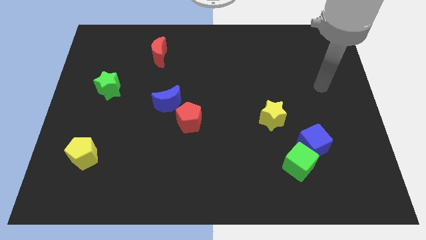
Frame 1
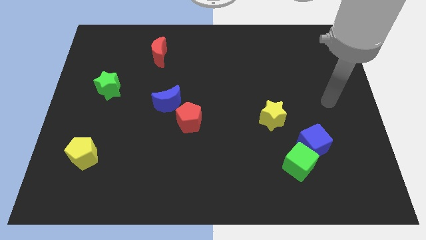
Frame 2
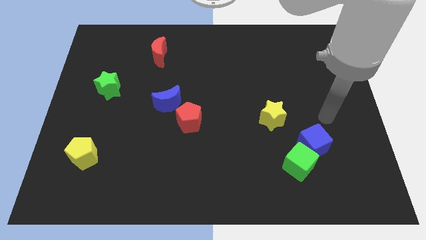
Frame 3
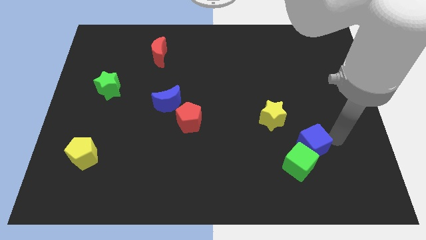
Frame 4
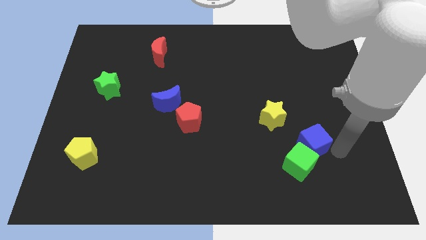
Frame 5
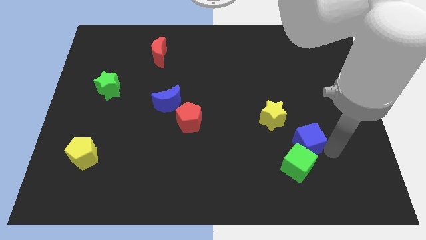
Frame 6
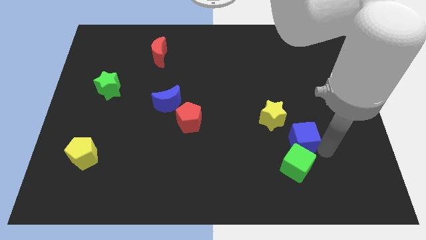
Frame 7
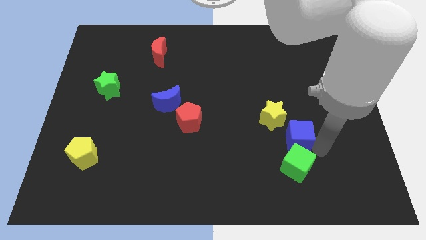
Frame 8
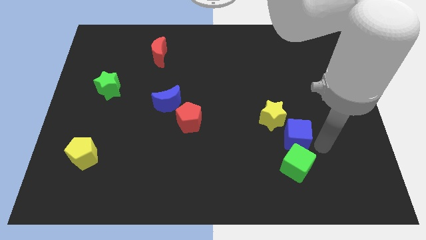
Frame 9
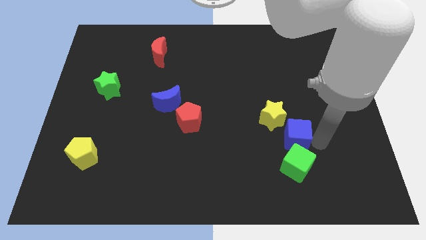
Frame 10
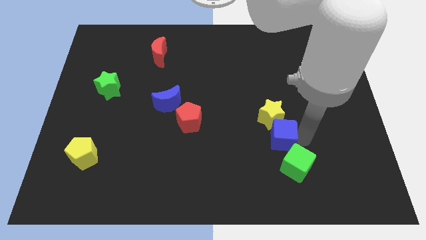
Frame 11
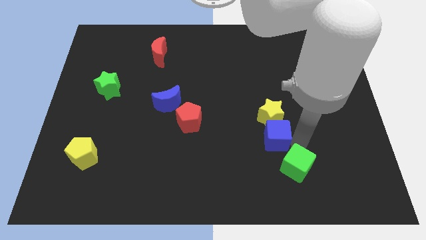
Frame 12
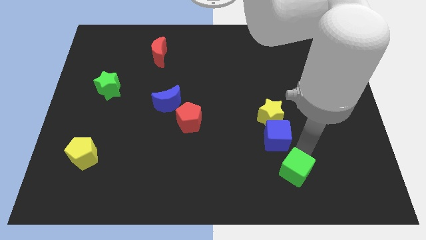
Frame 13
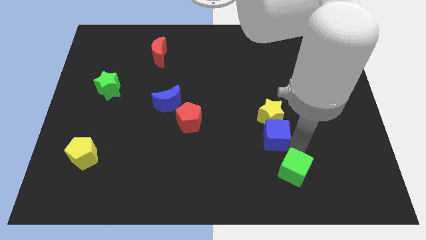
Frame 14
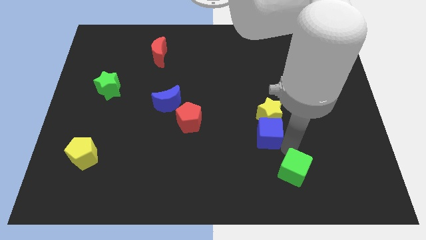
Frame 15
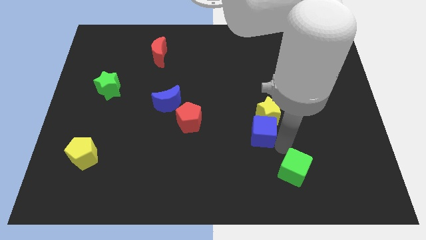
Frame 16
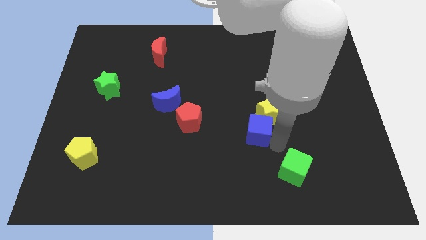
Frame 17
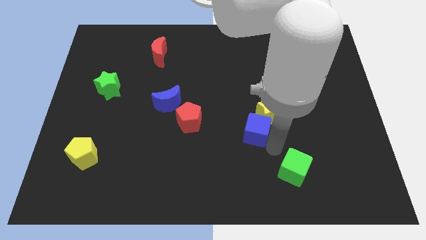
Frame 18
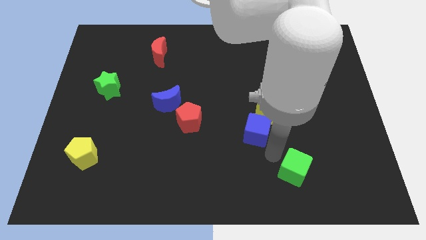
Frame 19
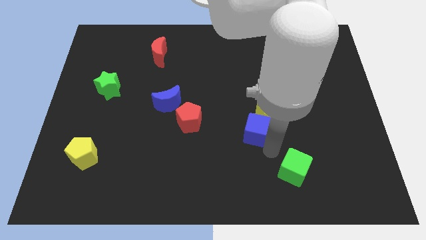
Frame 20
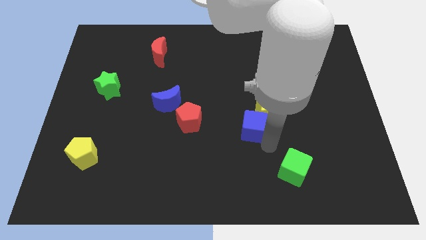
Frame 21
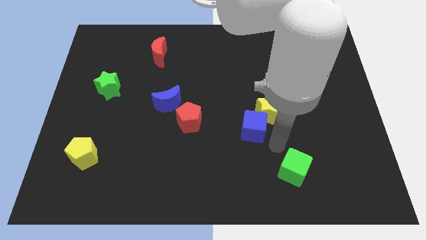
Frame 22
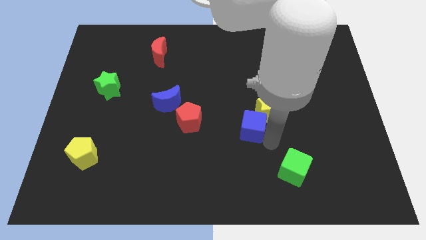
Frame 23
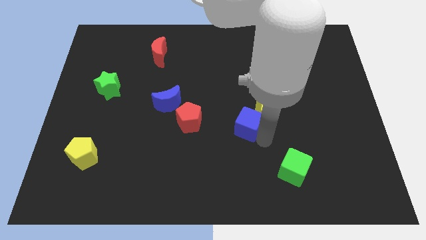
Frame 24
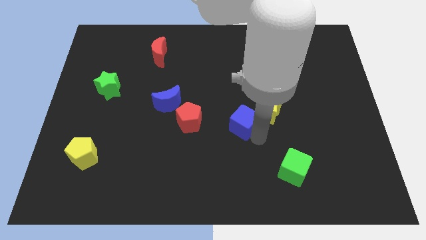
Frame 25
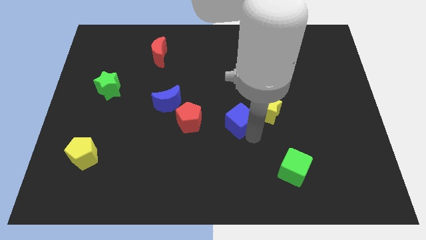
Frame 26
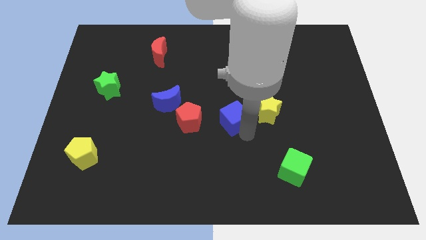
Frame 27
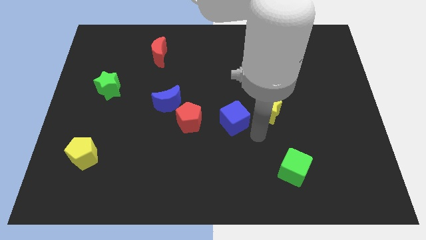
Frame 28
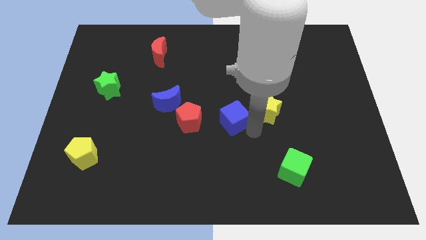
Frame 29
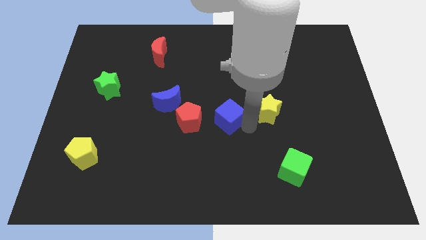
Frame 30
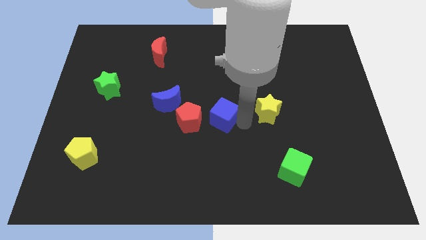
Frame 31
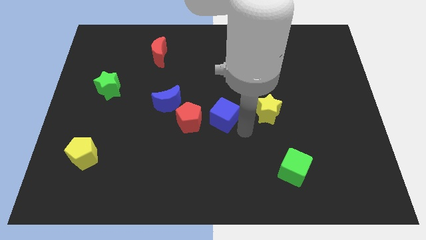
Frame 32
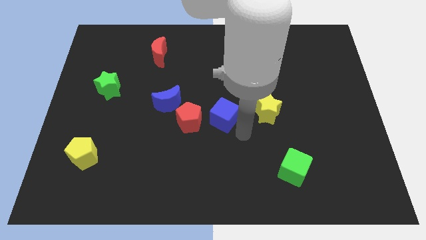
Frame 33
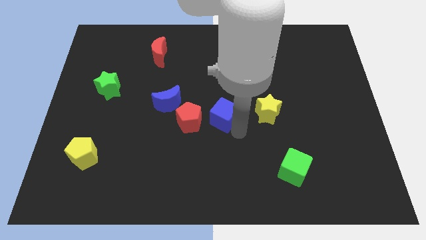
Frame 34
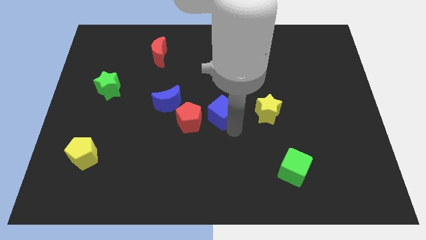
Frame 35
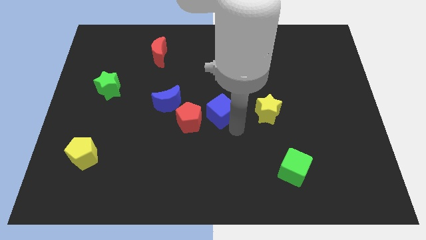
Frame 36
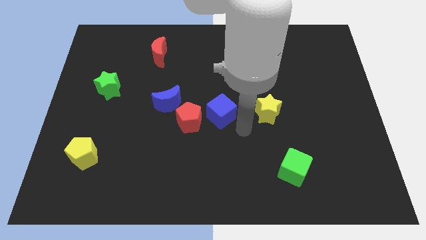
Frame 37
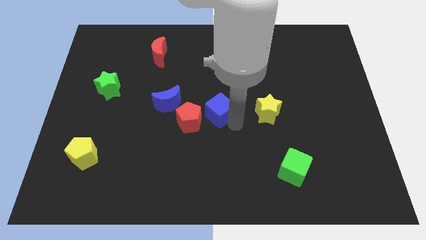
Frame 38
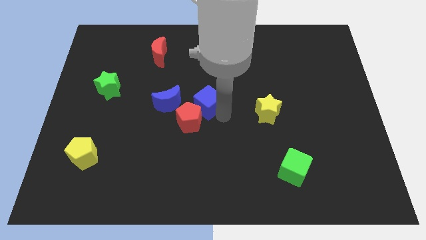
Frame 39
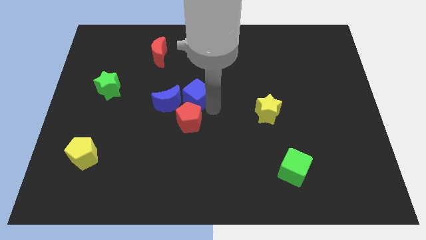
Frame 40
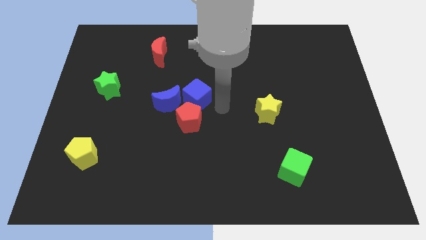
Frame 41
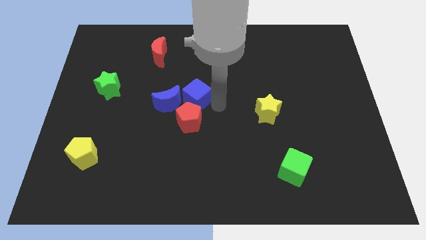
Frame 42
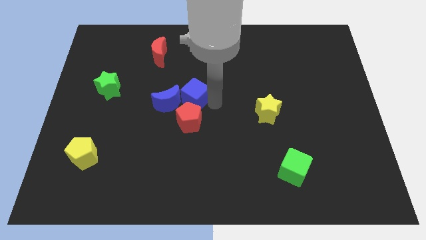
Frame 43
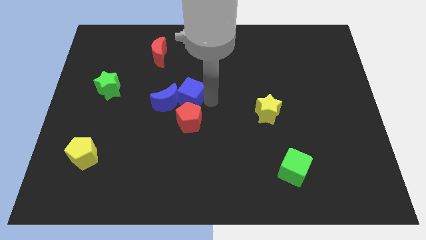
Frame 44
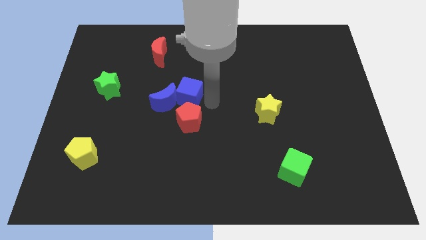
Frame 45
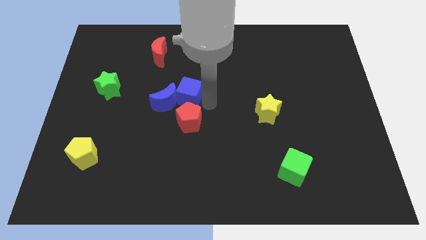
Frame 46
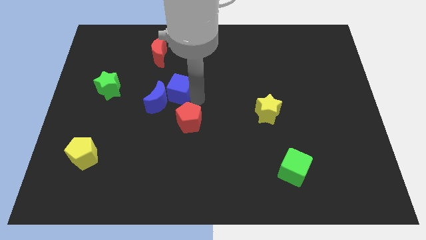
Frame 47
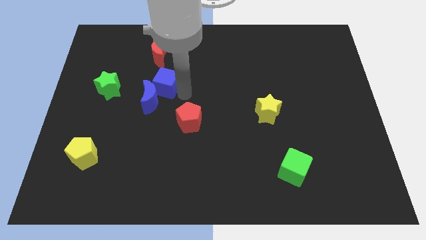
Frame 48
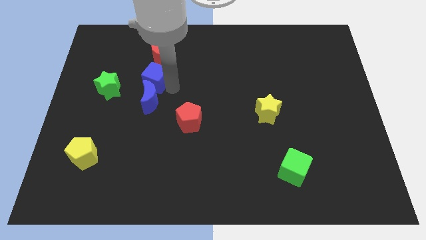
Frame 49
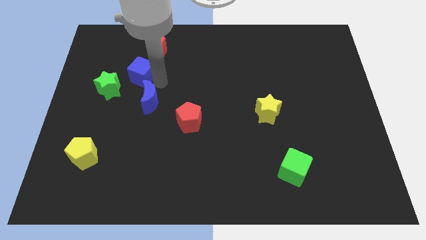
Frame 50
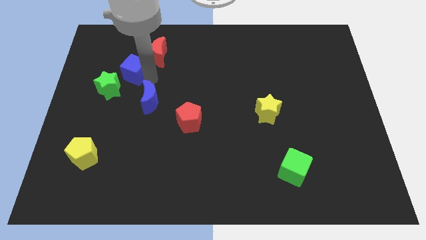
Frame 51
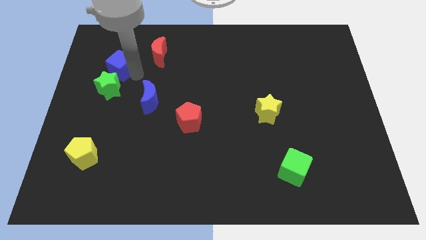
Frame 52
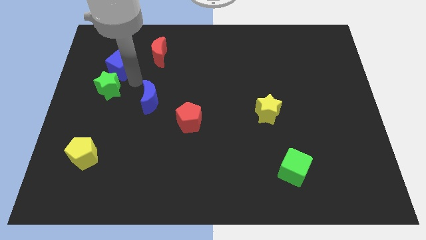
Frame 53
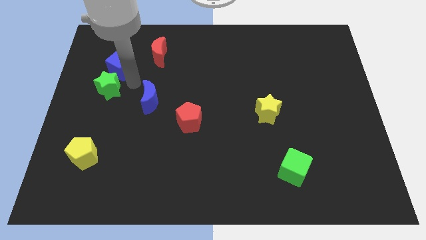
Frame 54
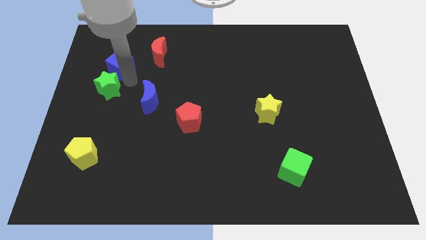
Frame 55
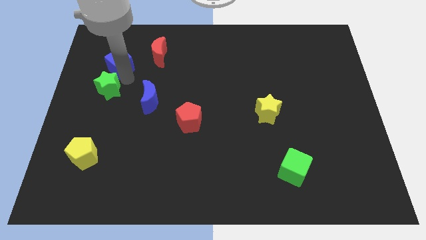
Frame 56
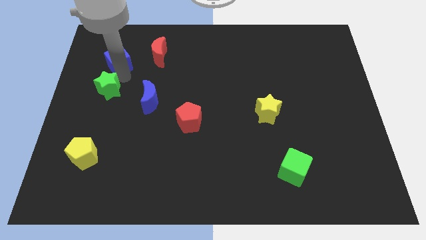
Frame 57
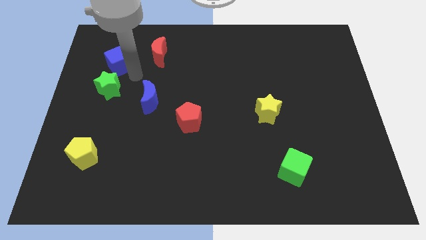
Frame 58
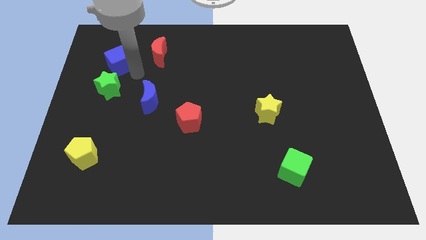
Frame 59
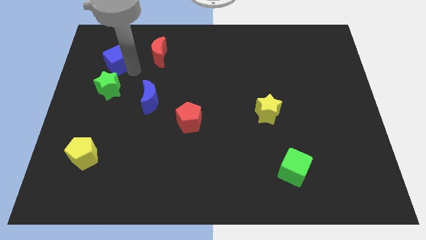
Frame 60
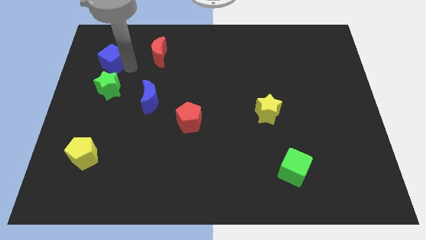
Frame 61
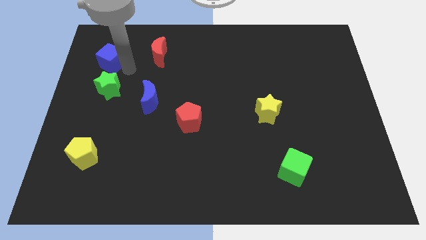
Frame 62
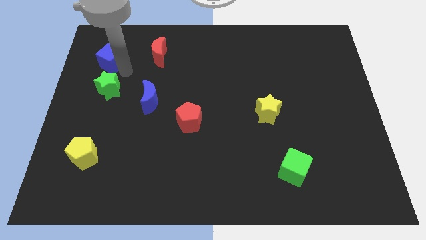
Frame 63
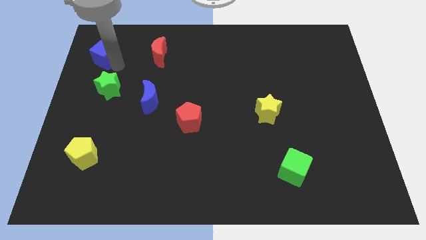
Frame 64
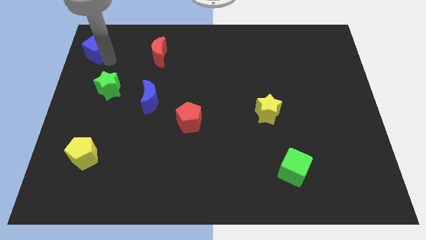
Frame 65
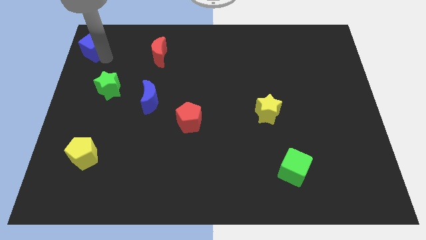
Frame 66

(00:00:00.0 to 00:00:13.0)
put the blue cube to the top left of the board

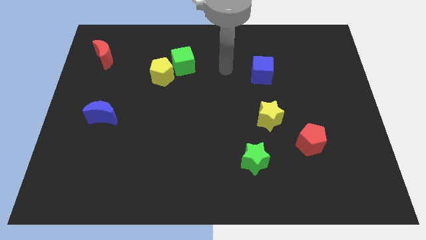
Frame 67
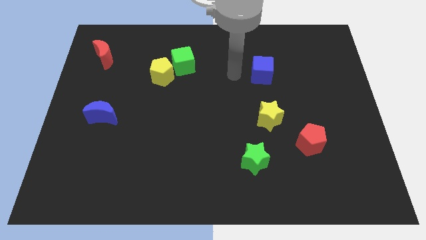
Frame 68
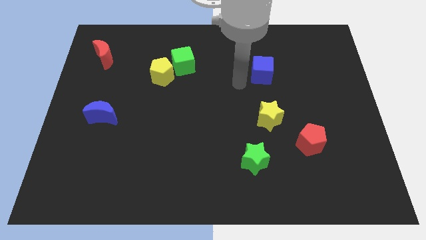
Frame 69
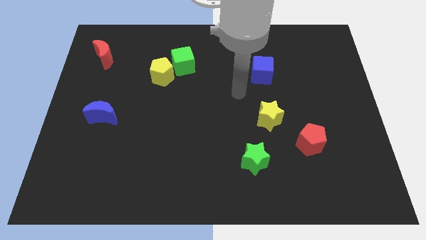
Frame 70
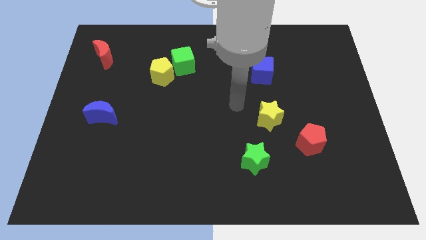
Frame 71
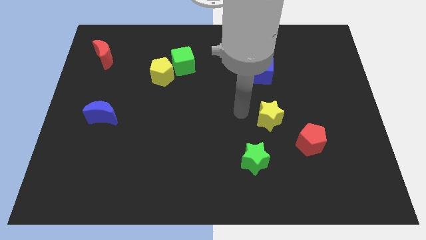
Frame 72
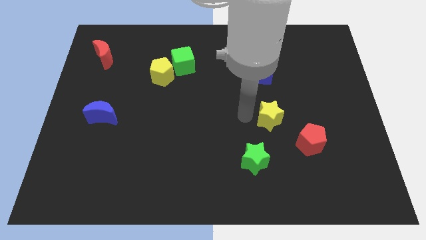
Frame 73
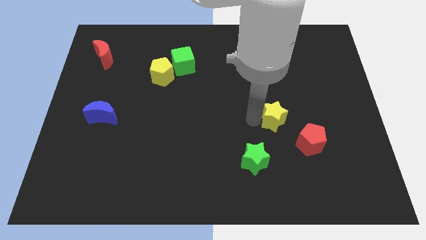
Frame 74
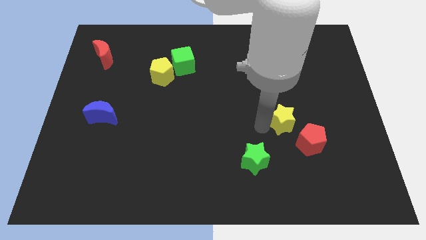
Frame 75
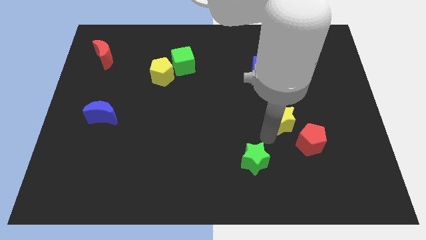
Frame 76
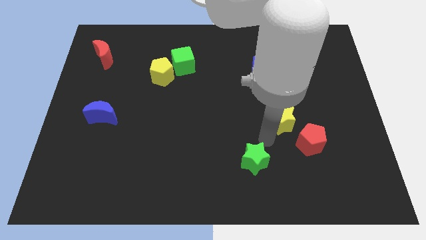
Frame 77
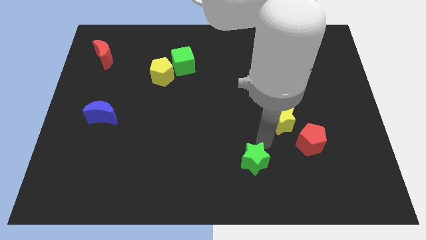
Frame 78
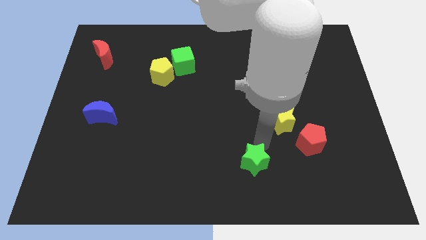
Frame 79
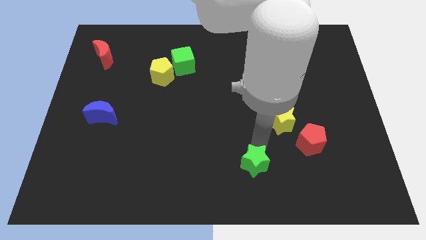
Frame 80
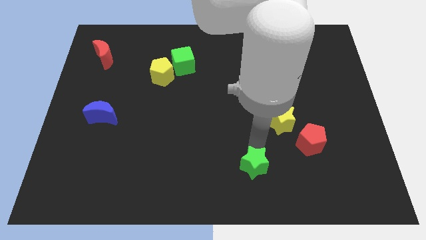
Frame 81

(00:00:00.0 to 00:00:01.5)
move the green star to the bottom
